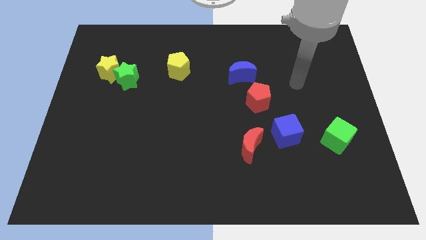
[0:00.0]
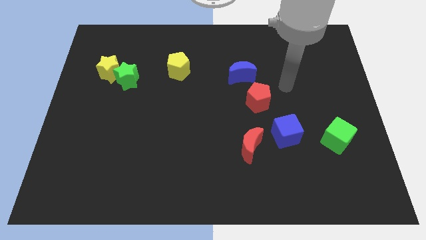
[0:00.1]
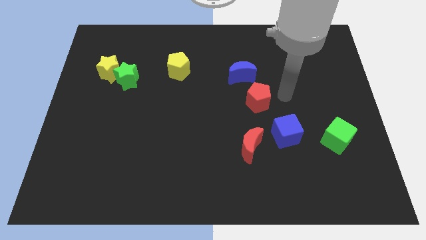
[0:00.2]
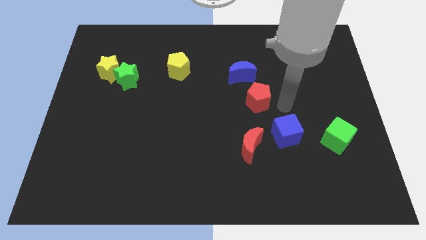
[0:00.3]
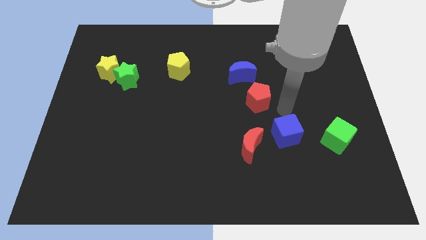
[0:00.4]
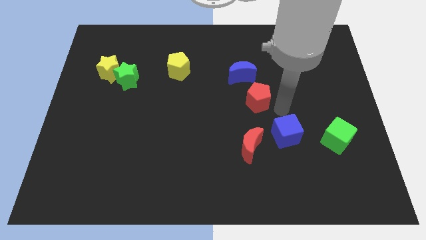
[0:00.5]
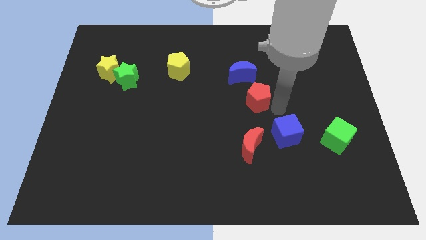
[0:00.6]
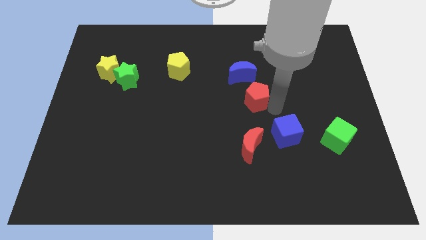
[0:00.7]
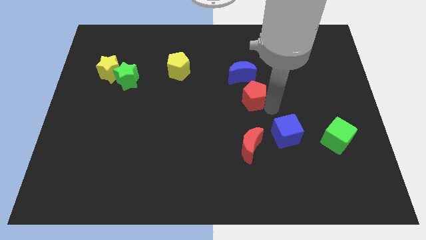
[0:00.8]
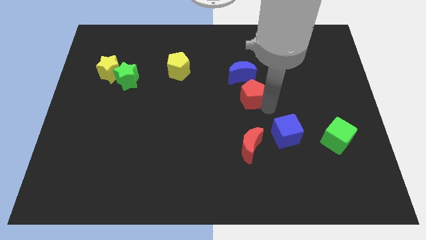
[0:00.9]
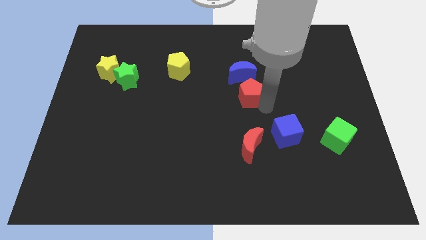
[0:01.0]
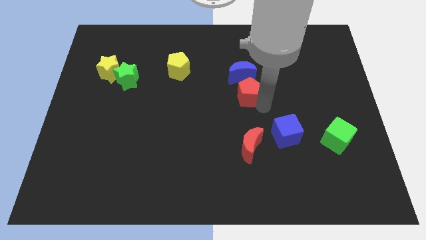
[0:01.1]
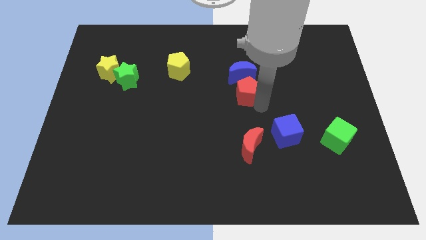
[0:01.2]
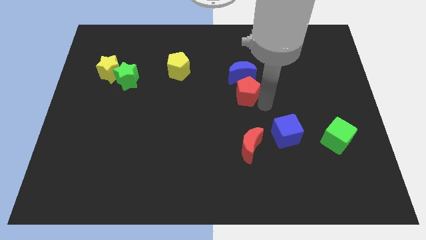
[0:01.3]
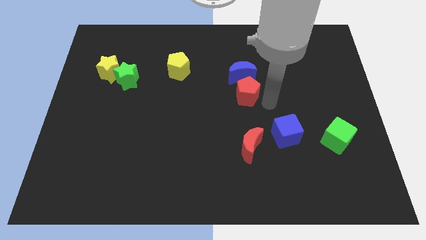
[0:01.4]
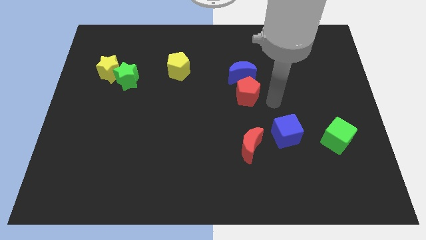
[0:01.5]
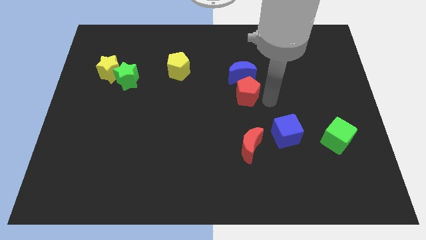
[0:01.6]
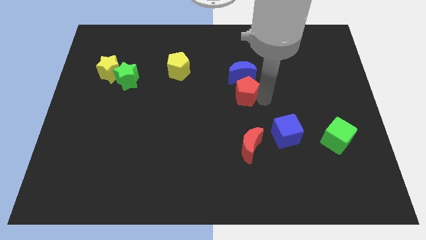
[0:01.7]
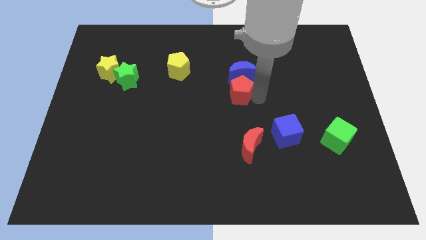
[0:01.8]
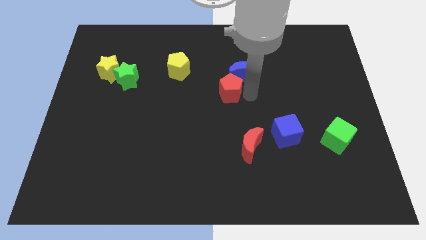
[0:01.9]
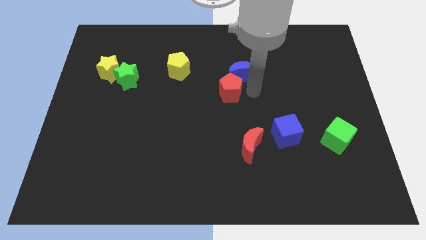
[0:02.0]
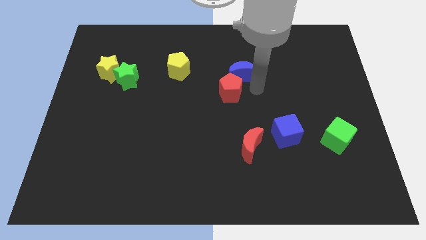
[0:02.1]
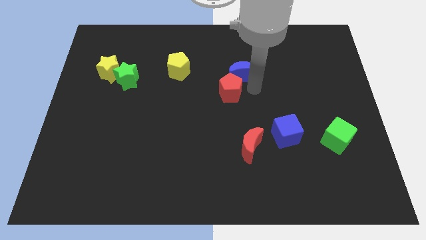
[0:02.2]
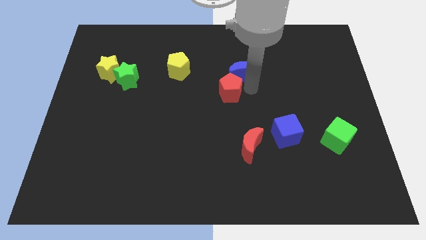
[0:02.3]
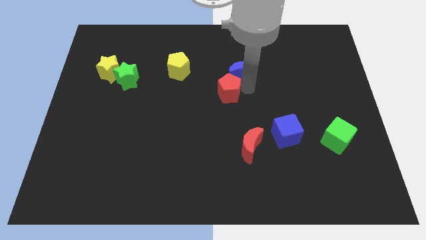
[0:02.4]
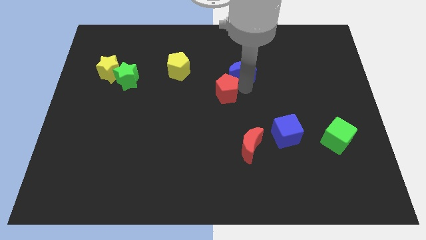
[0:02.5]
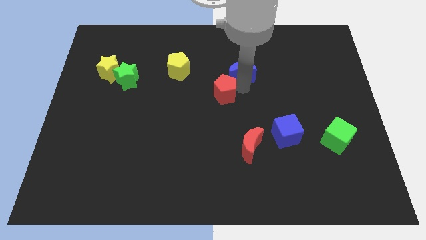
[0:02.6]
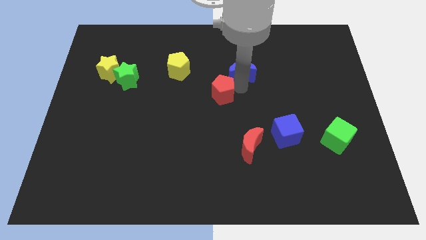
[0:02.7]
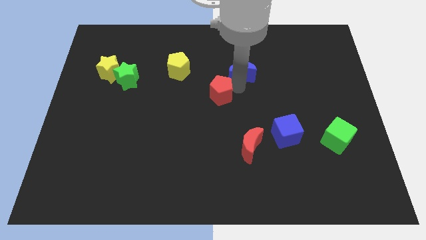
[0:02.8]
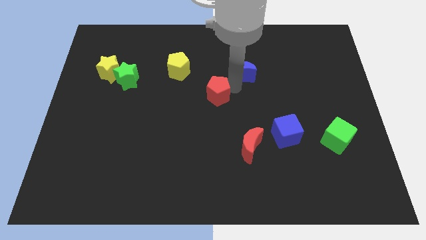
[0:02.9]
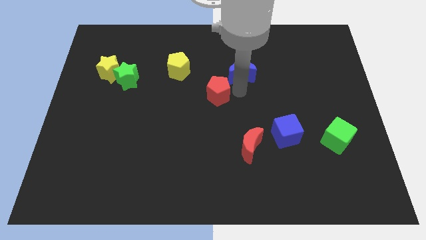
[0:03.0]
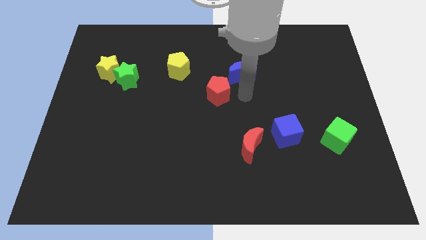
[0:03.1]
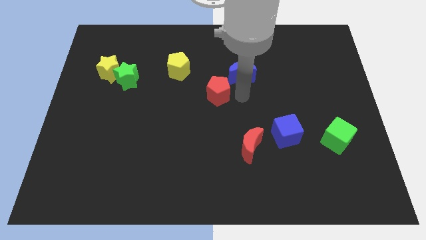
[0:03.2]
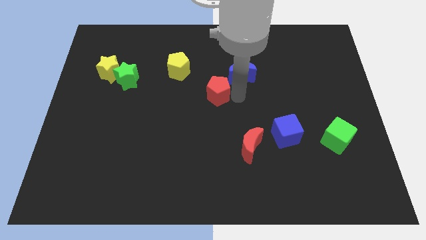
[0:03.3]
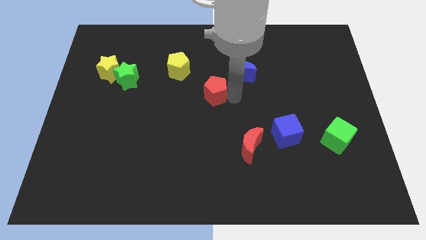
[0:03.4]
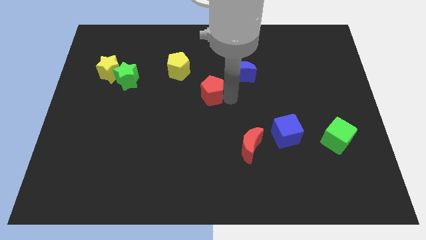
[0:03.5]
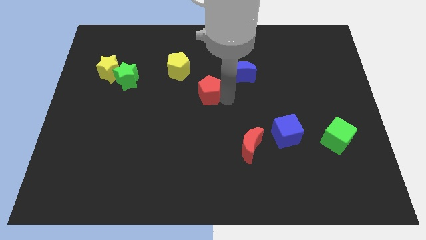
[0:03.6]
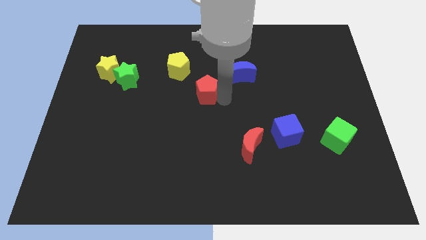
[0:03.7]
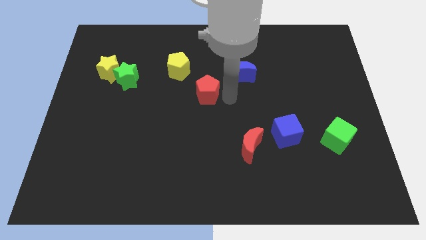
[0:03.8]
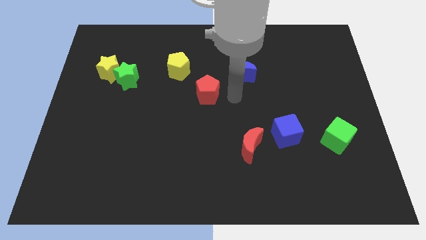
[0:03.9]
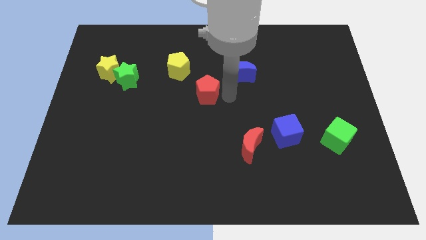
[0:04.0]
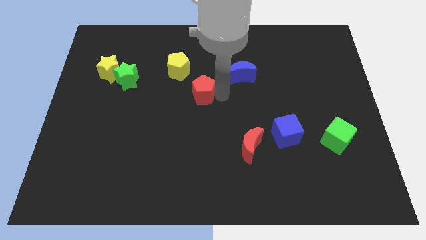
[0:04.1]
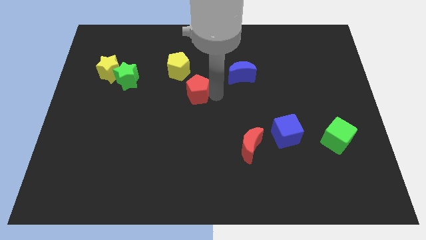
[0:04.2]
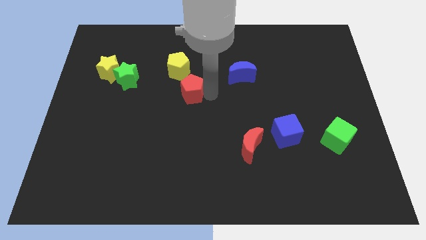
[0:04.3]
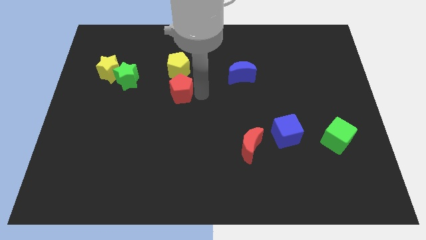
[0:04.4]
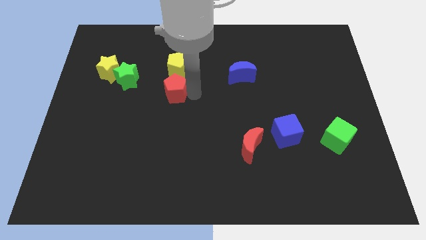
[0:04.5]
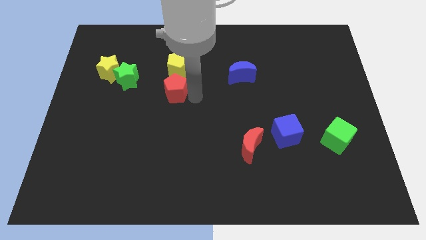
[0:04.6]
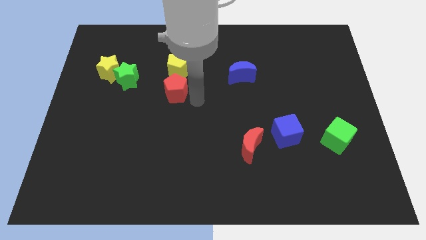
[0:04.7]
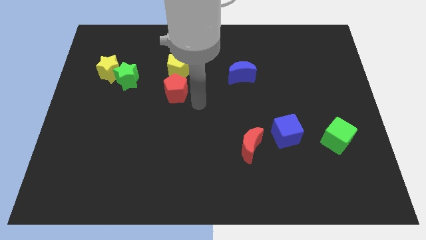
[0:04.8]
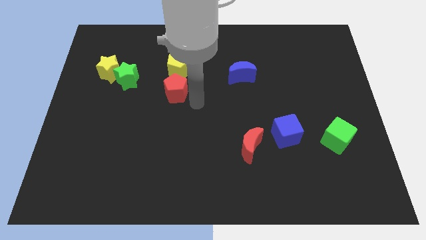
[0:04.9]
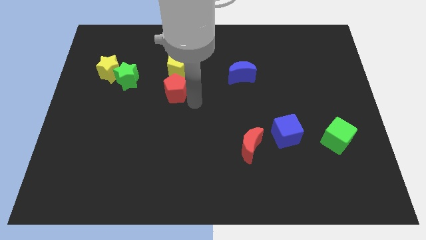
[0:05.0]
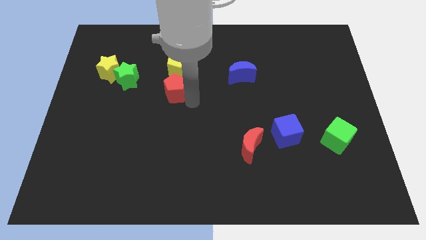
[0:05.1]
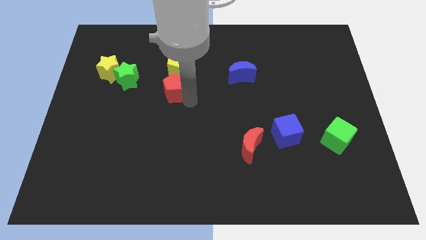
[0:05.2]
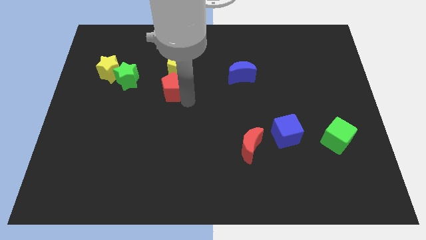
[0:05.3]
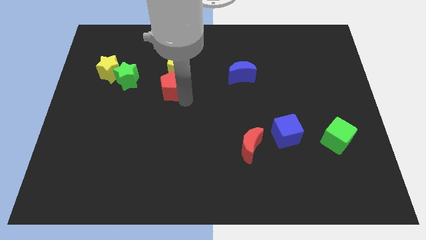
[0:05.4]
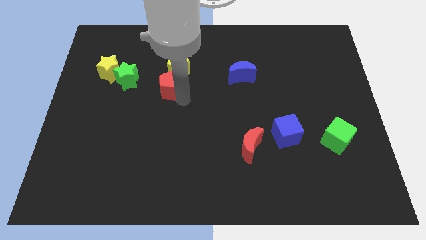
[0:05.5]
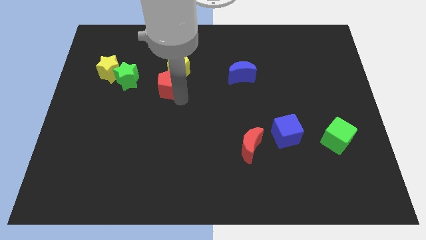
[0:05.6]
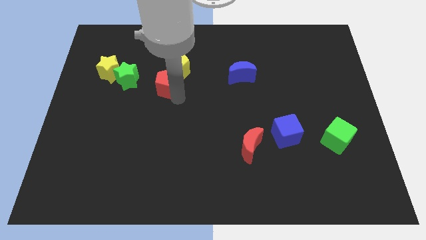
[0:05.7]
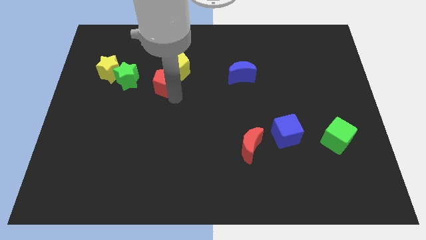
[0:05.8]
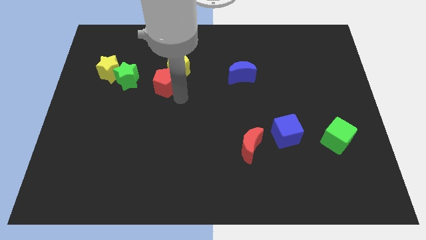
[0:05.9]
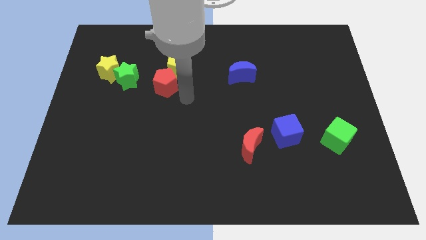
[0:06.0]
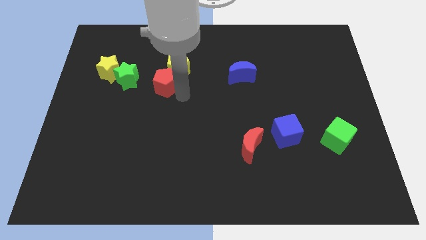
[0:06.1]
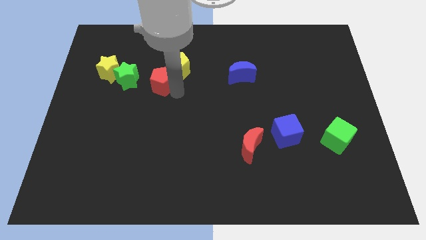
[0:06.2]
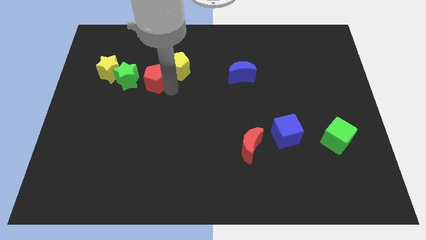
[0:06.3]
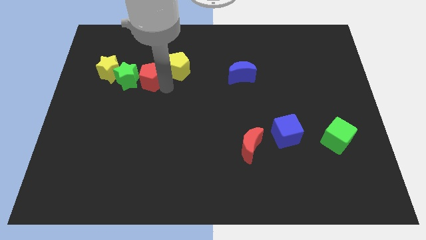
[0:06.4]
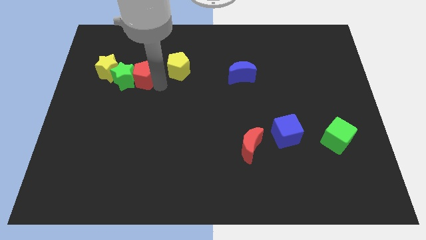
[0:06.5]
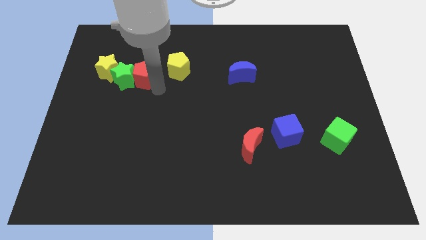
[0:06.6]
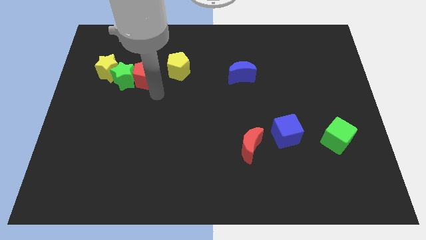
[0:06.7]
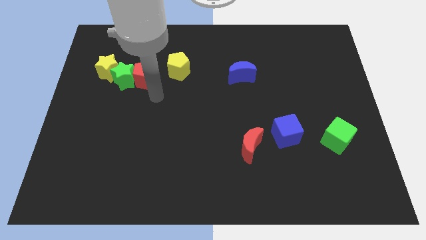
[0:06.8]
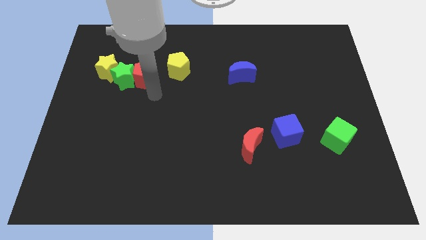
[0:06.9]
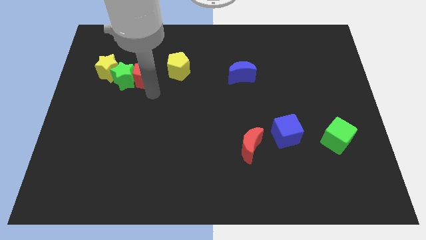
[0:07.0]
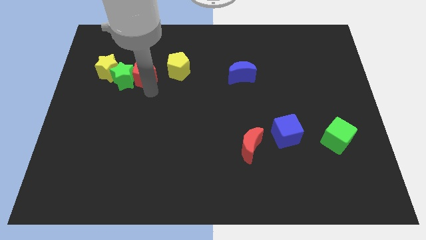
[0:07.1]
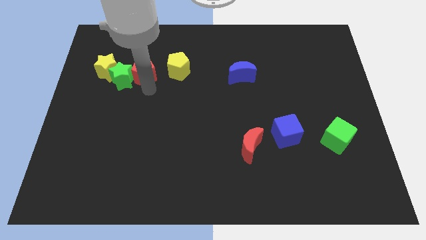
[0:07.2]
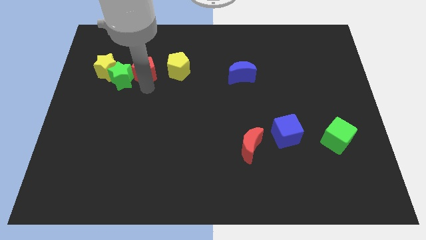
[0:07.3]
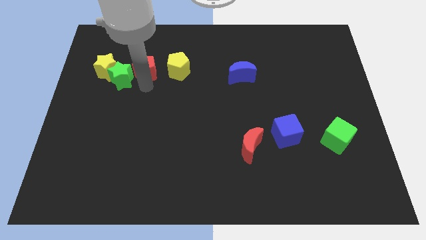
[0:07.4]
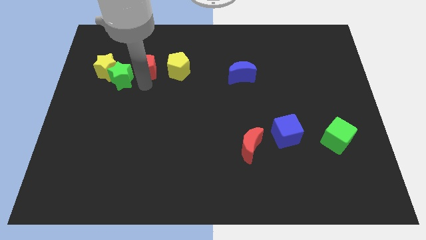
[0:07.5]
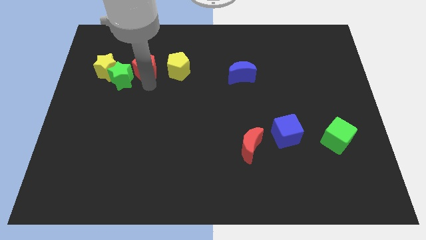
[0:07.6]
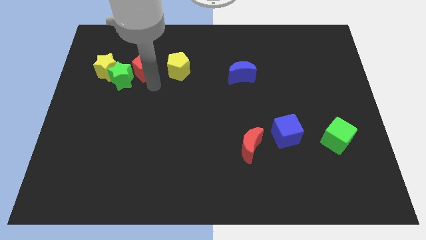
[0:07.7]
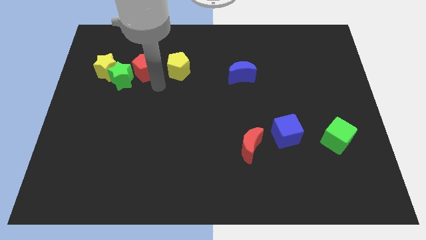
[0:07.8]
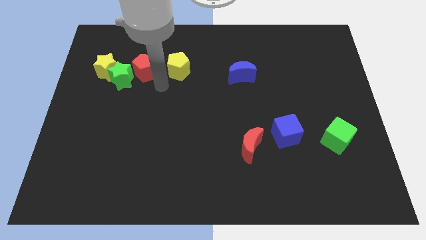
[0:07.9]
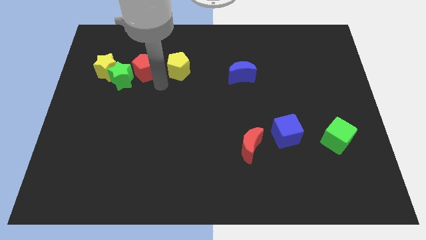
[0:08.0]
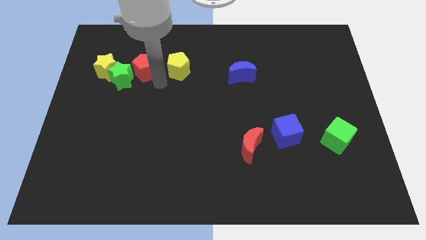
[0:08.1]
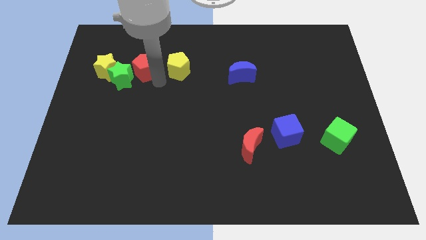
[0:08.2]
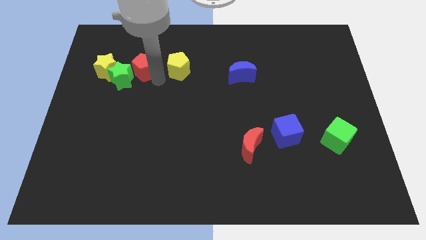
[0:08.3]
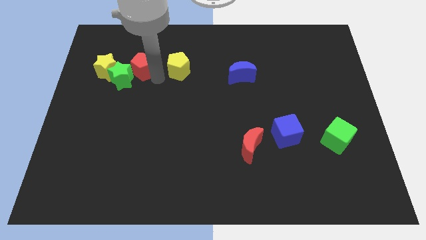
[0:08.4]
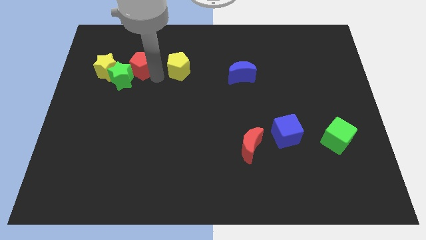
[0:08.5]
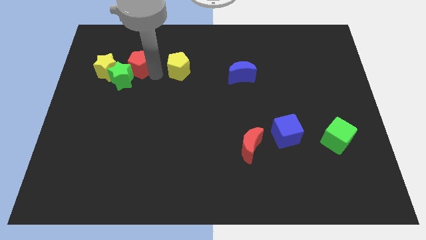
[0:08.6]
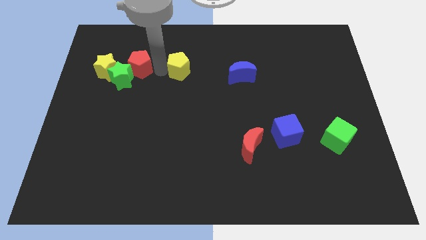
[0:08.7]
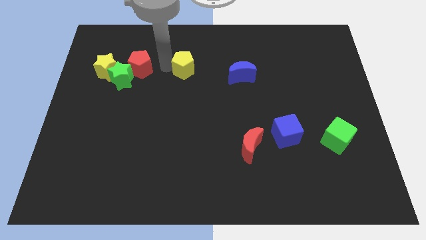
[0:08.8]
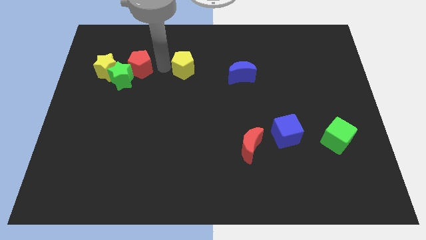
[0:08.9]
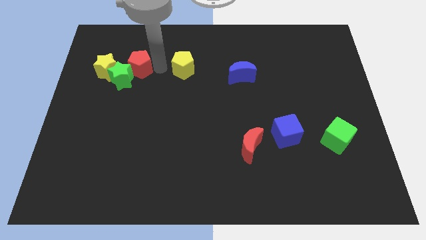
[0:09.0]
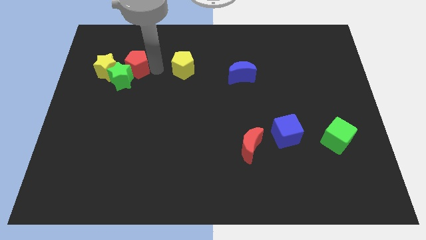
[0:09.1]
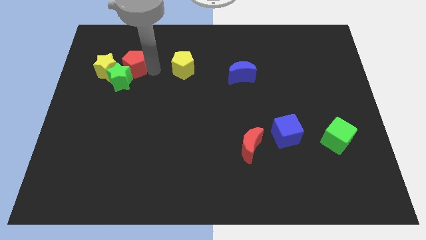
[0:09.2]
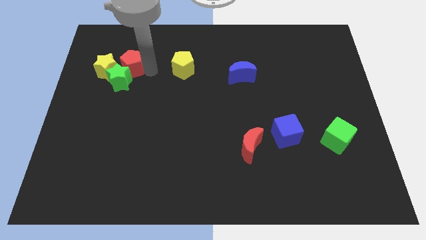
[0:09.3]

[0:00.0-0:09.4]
push the red pentagon close to the yellow star
